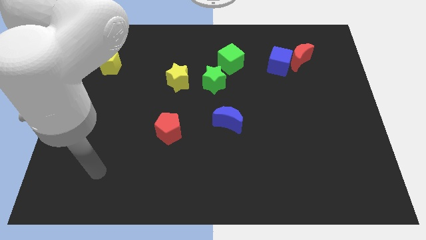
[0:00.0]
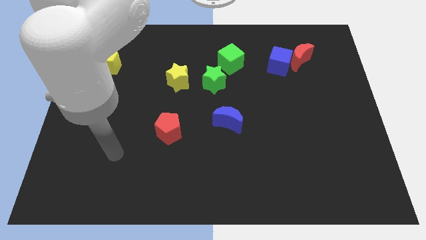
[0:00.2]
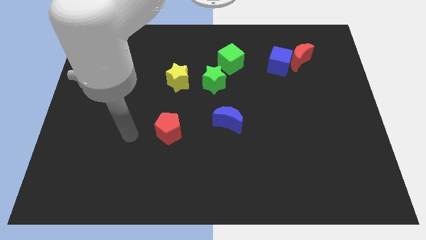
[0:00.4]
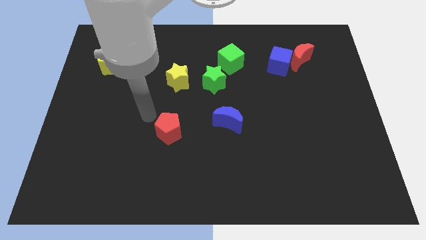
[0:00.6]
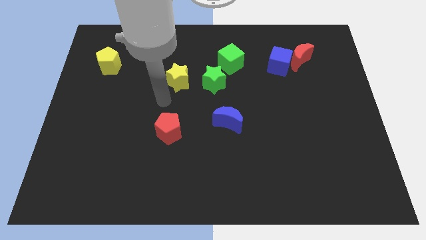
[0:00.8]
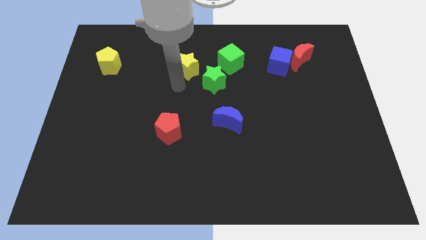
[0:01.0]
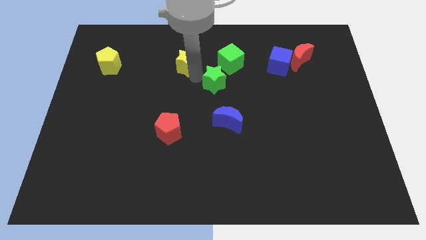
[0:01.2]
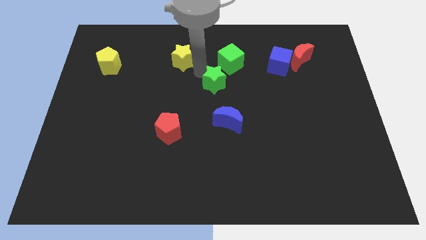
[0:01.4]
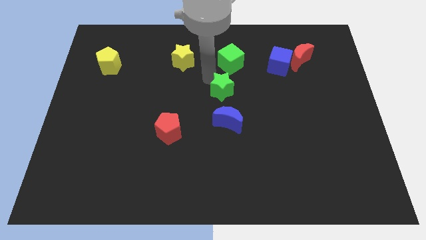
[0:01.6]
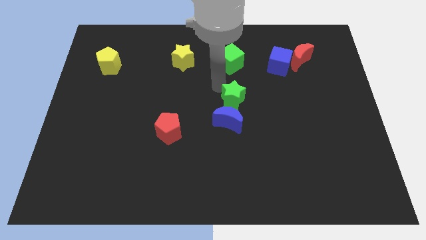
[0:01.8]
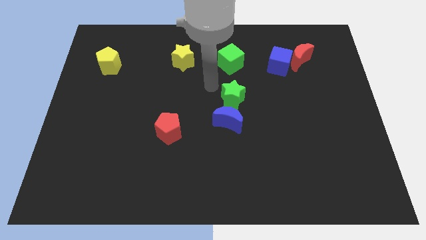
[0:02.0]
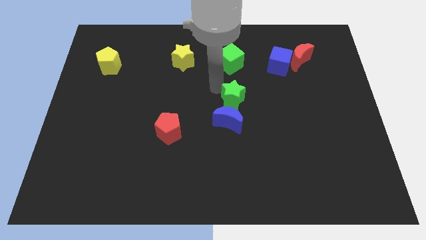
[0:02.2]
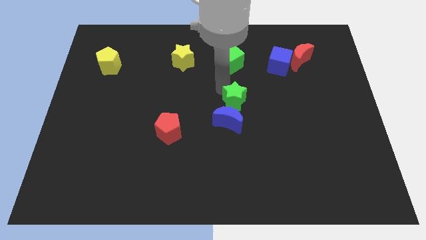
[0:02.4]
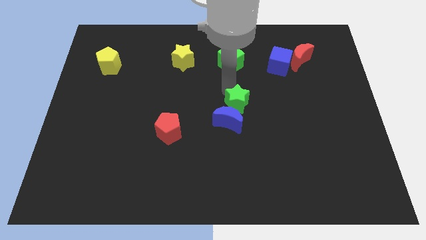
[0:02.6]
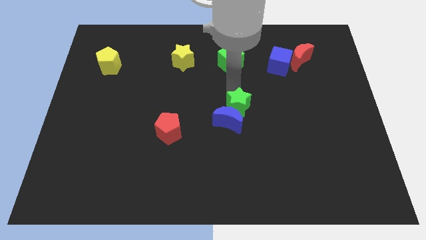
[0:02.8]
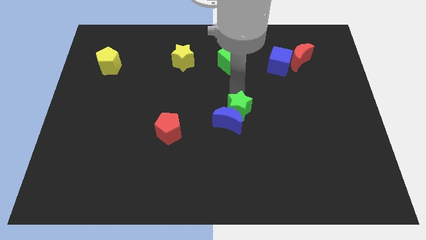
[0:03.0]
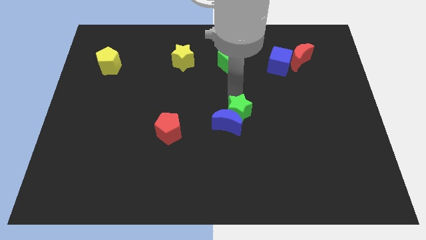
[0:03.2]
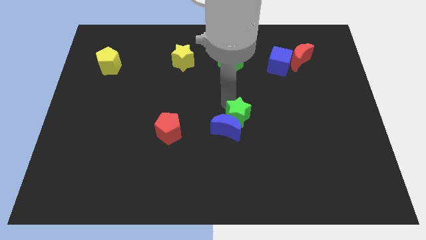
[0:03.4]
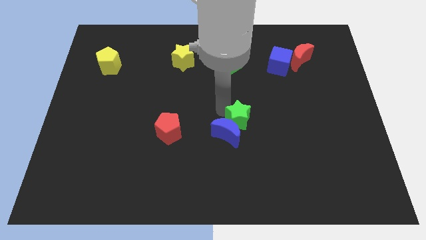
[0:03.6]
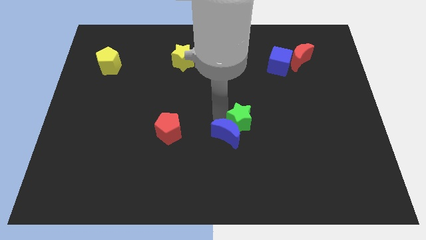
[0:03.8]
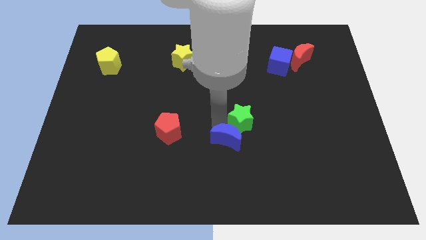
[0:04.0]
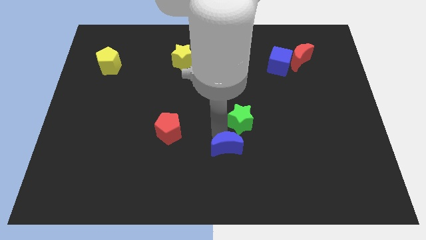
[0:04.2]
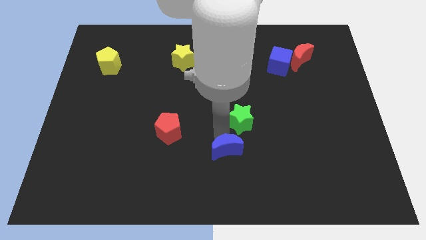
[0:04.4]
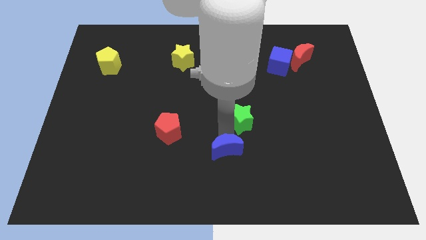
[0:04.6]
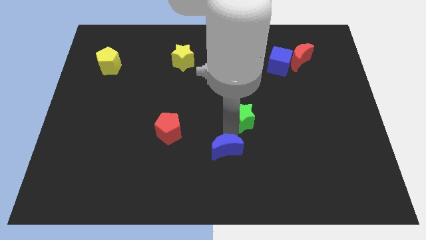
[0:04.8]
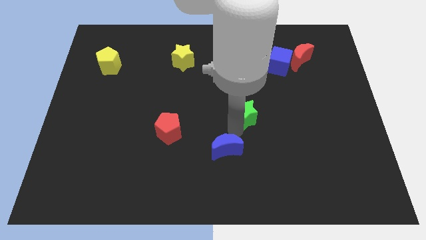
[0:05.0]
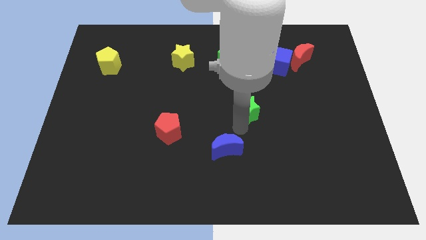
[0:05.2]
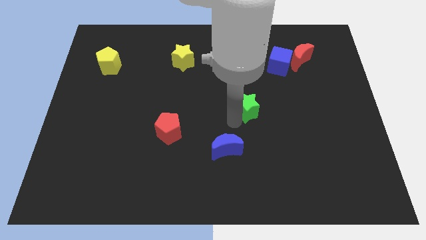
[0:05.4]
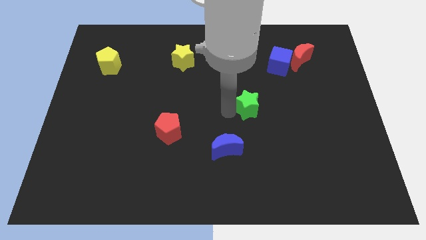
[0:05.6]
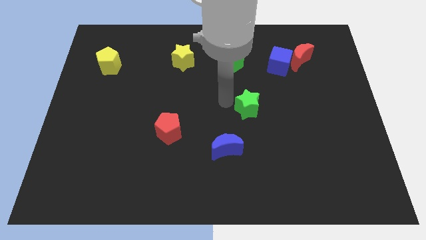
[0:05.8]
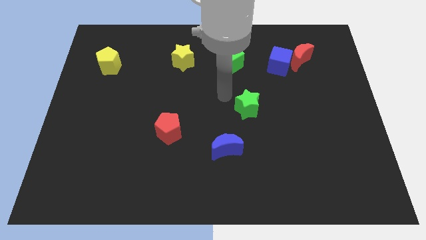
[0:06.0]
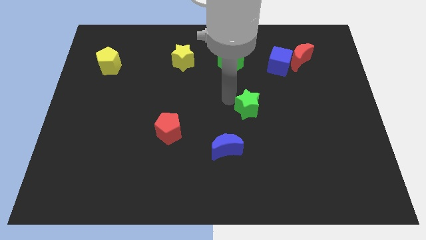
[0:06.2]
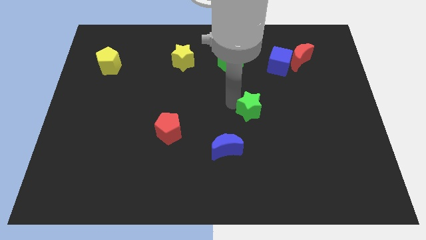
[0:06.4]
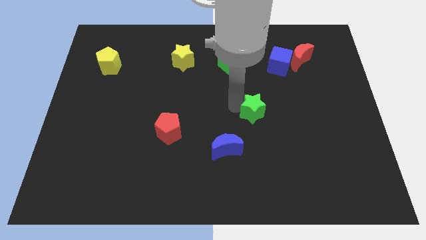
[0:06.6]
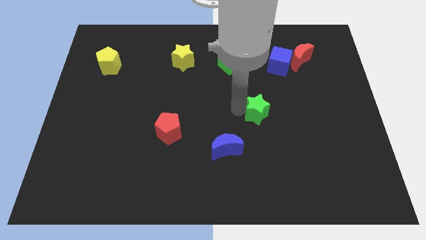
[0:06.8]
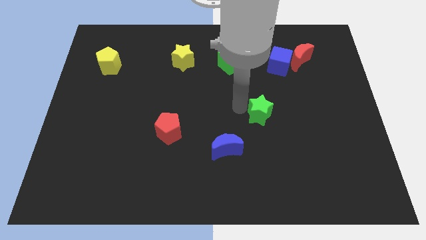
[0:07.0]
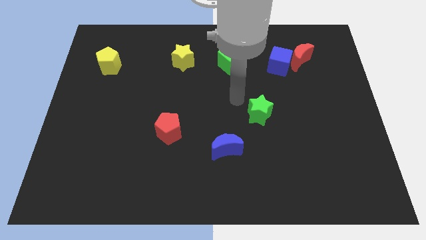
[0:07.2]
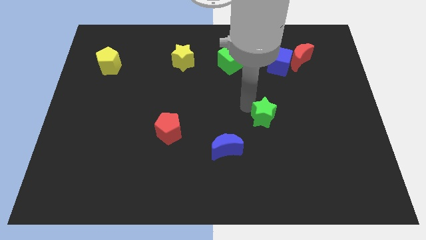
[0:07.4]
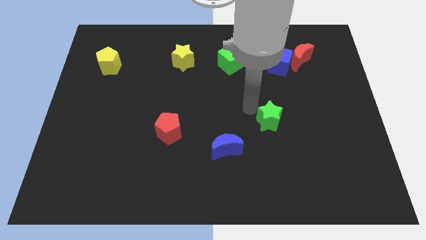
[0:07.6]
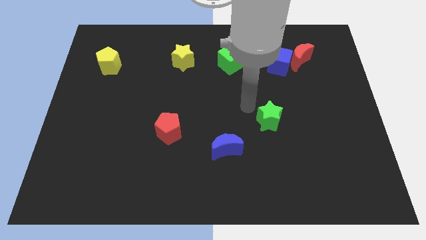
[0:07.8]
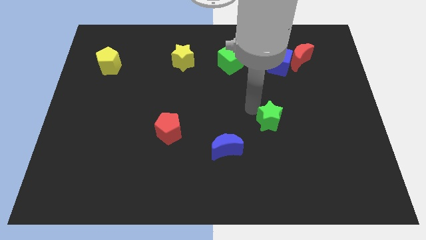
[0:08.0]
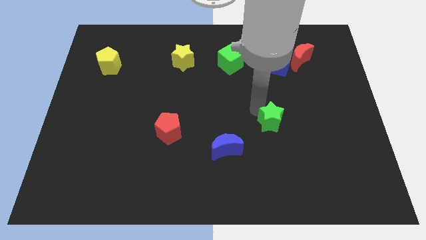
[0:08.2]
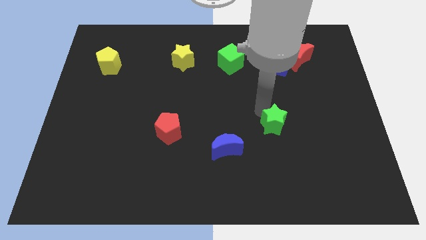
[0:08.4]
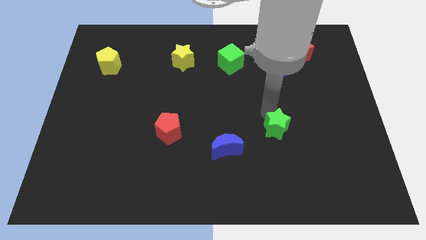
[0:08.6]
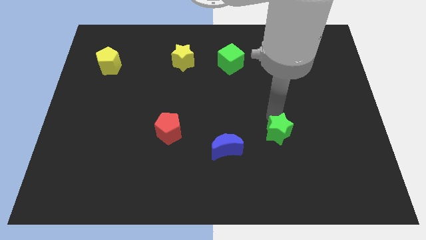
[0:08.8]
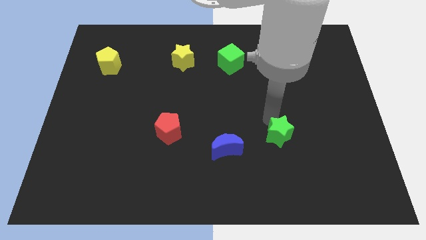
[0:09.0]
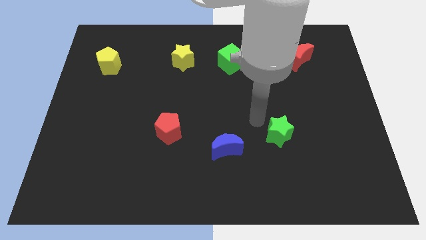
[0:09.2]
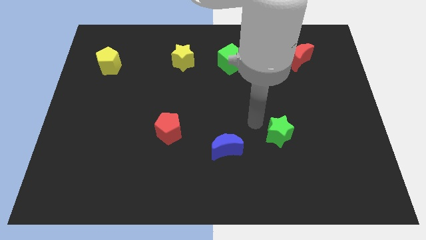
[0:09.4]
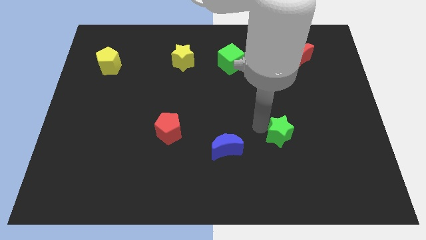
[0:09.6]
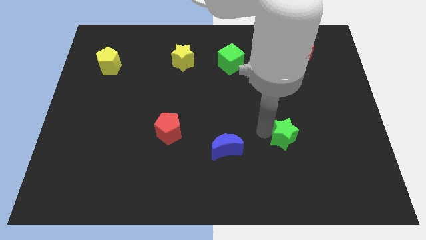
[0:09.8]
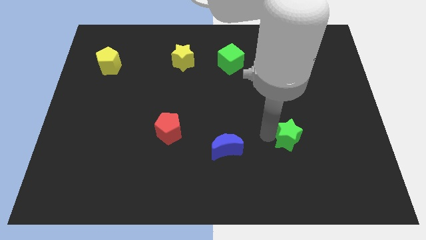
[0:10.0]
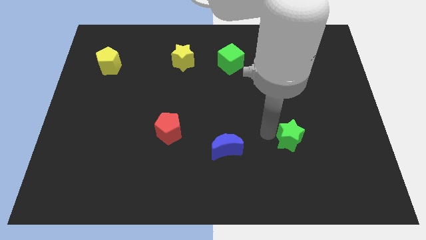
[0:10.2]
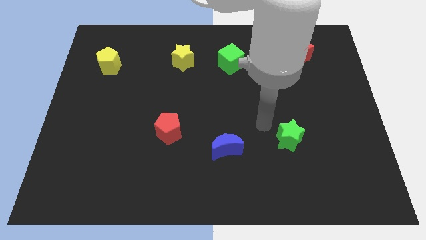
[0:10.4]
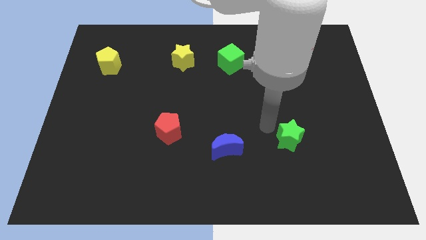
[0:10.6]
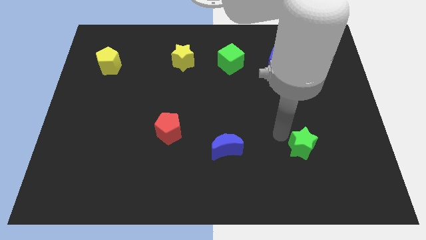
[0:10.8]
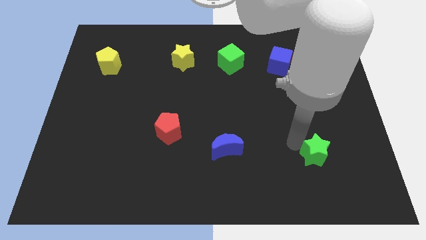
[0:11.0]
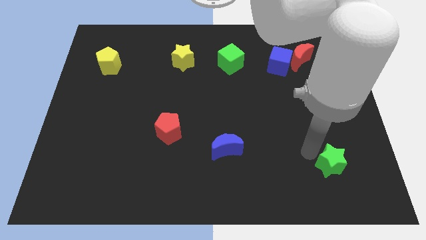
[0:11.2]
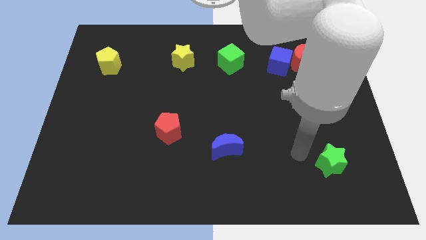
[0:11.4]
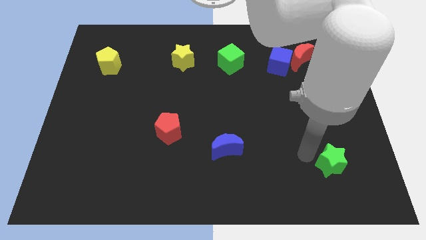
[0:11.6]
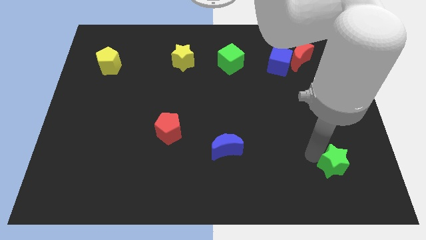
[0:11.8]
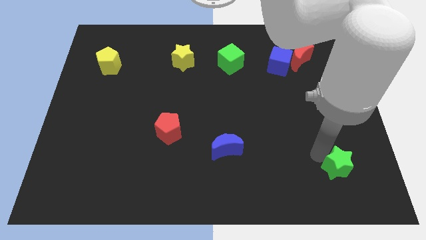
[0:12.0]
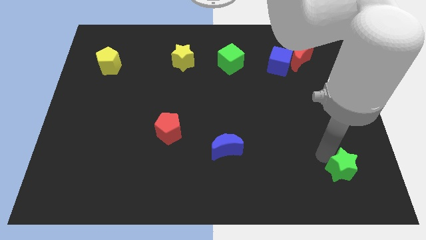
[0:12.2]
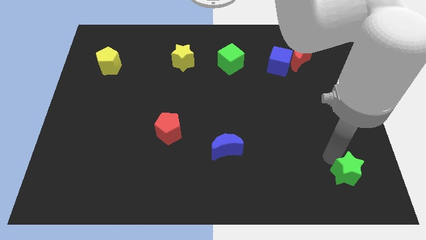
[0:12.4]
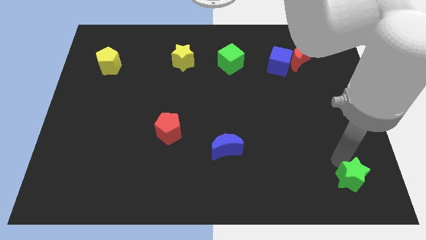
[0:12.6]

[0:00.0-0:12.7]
move the green star to the bottom right corner
